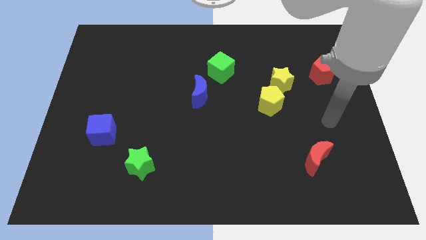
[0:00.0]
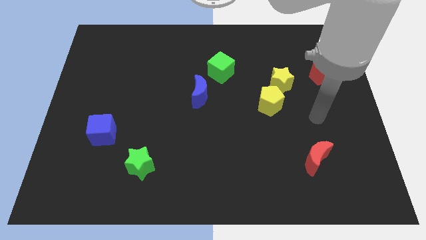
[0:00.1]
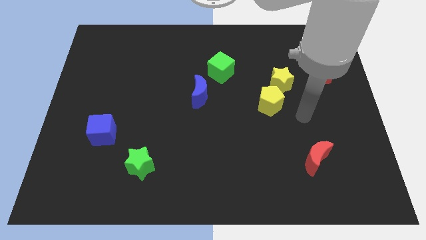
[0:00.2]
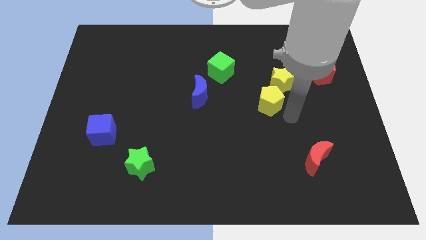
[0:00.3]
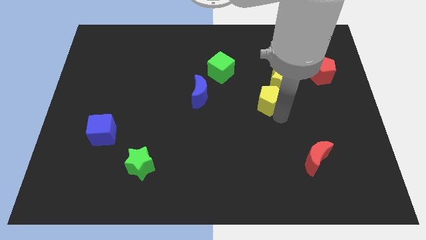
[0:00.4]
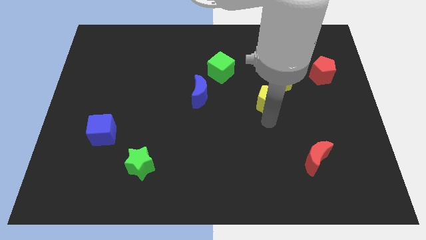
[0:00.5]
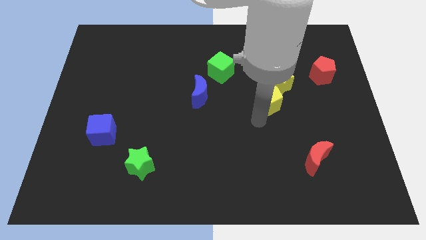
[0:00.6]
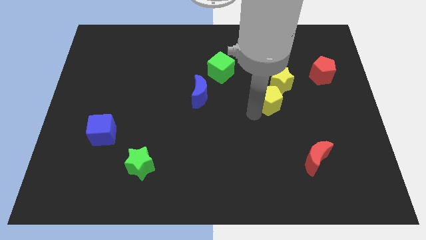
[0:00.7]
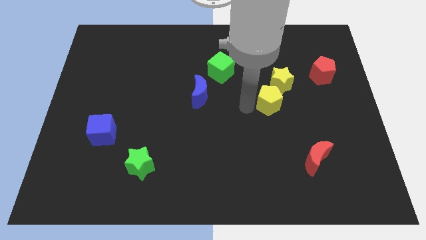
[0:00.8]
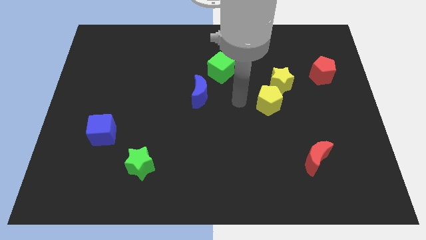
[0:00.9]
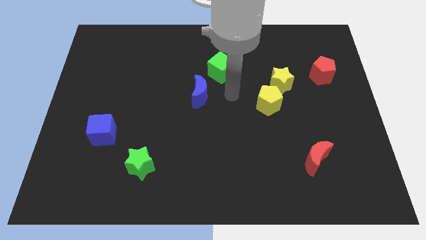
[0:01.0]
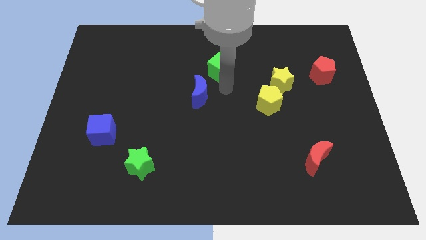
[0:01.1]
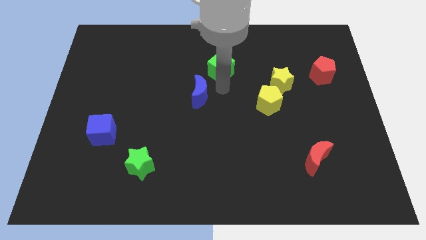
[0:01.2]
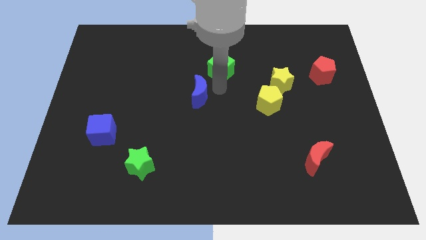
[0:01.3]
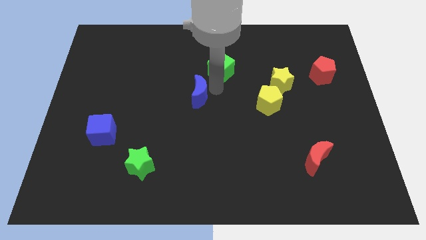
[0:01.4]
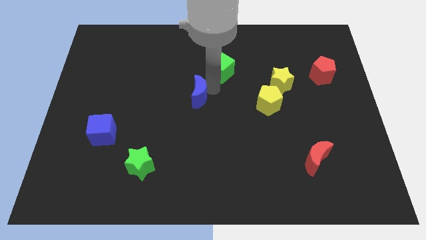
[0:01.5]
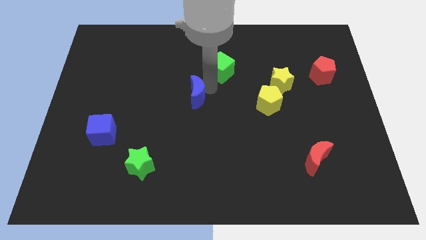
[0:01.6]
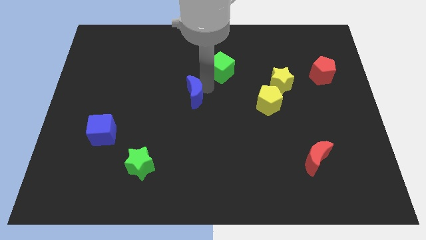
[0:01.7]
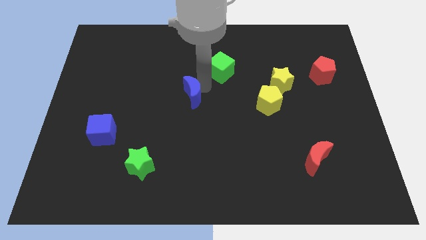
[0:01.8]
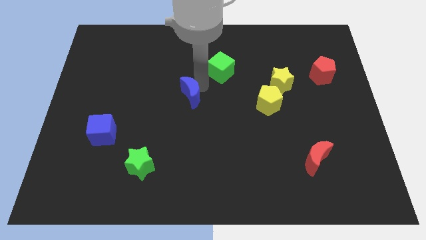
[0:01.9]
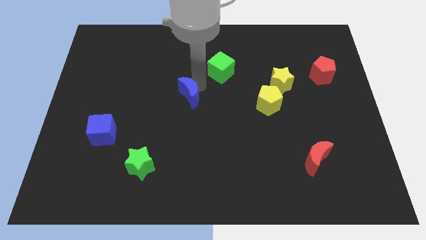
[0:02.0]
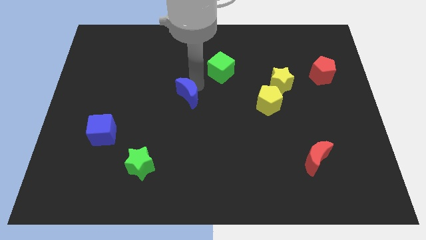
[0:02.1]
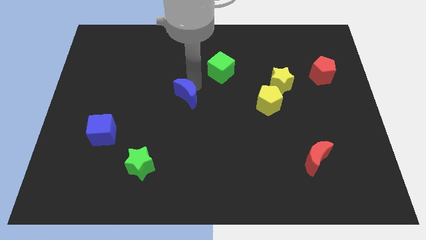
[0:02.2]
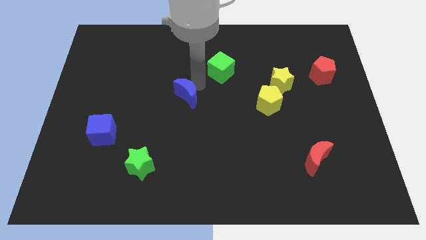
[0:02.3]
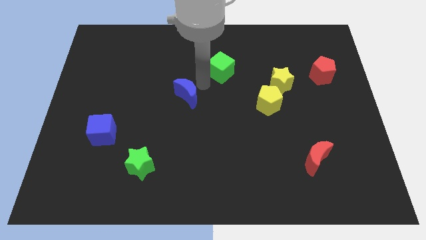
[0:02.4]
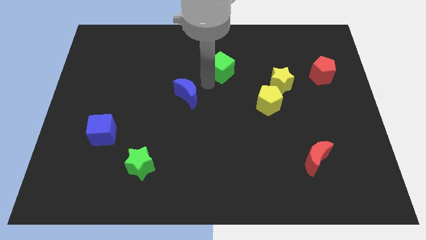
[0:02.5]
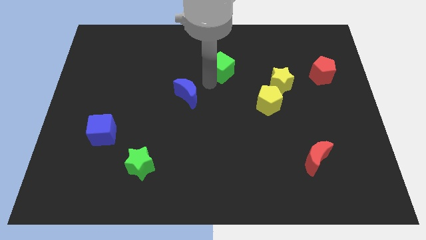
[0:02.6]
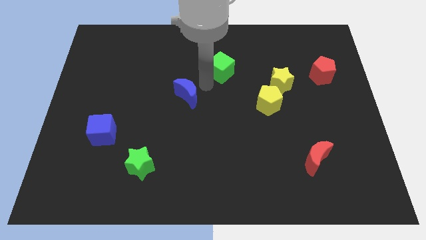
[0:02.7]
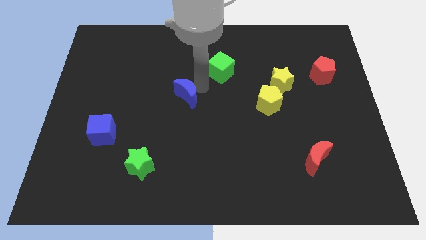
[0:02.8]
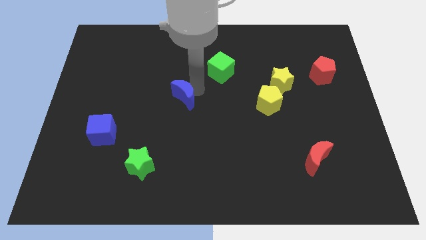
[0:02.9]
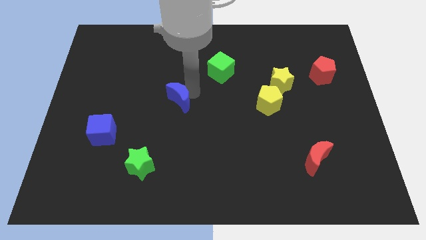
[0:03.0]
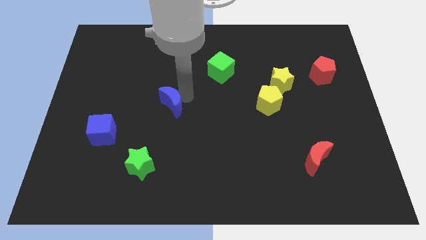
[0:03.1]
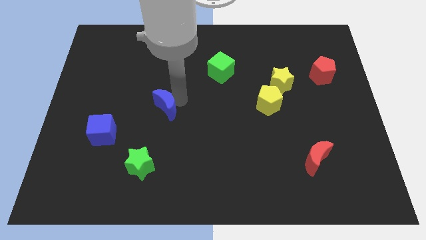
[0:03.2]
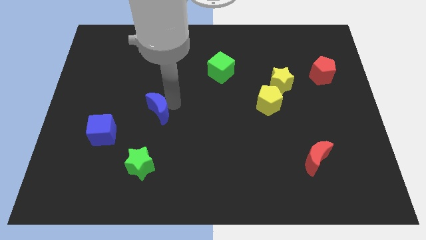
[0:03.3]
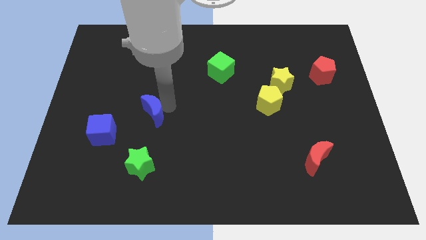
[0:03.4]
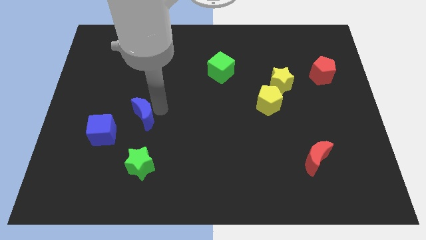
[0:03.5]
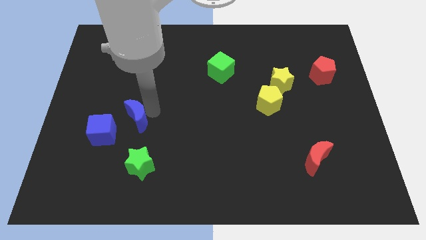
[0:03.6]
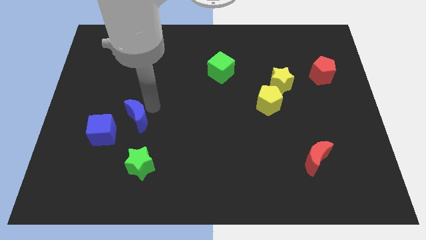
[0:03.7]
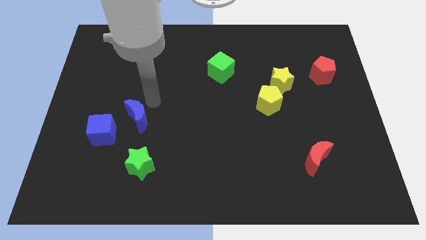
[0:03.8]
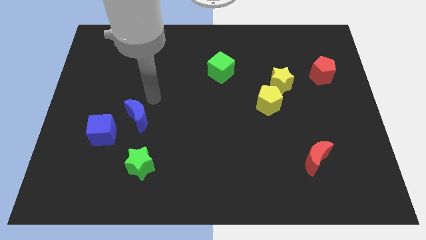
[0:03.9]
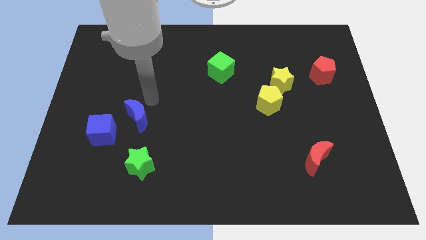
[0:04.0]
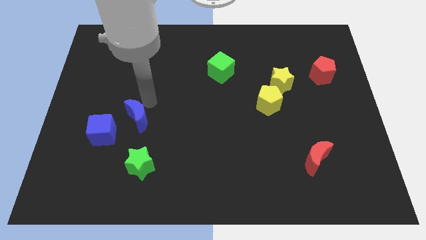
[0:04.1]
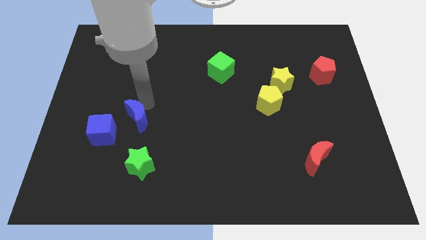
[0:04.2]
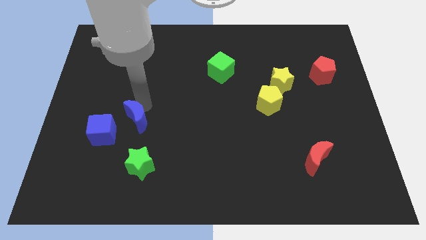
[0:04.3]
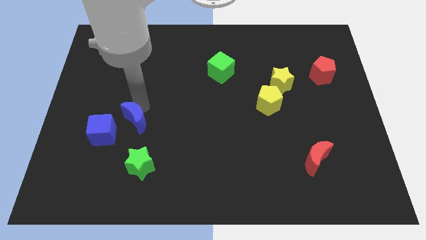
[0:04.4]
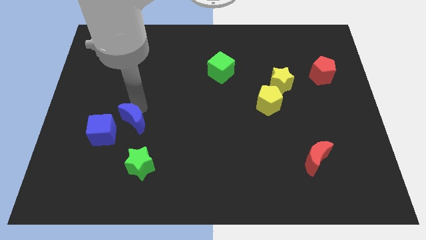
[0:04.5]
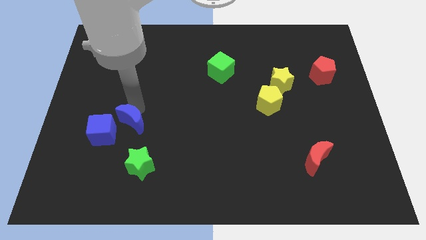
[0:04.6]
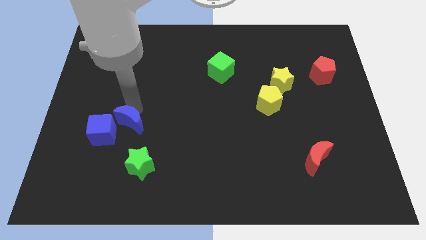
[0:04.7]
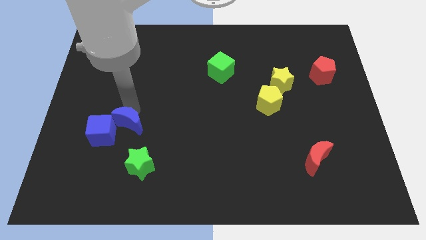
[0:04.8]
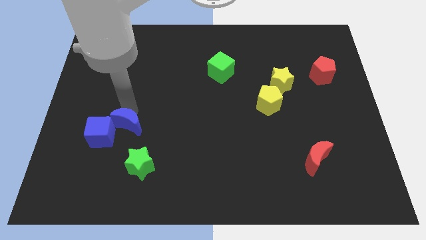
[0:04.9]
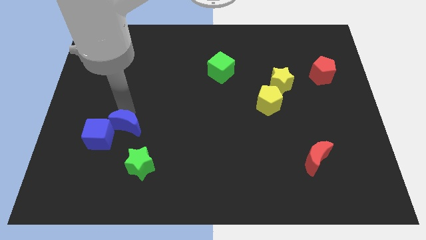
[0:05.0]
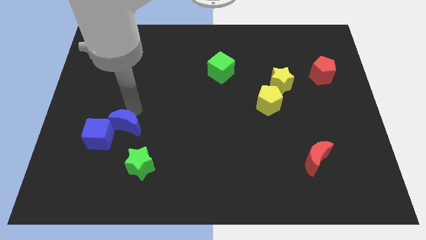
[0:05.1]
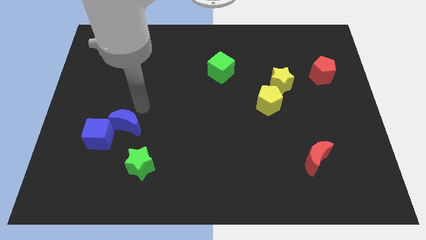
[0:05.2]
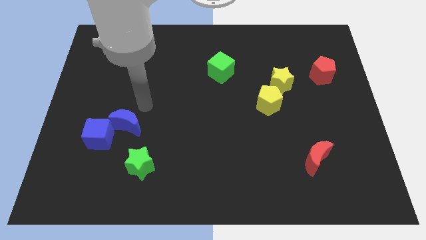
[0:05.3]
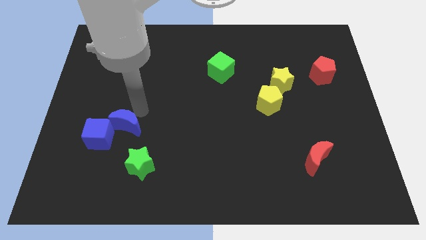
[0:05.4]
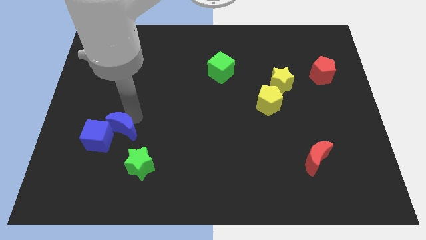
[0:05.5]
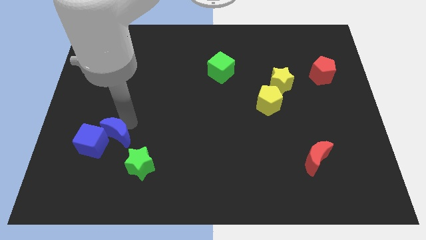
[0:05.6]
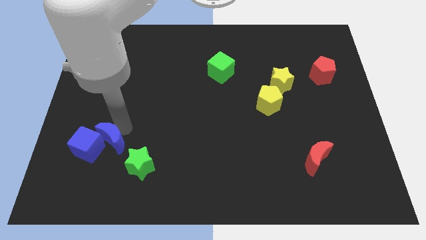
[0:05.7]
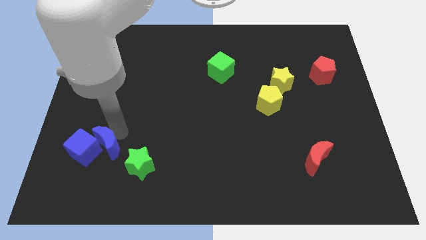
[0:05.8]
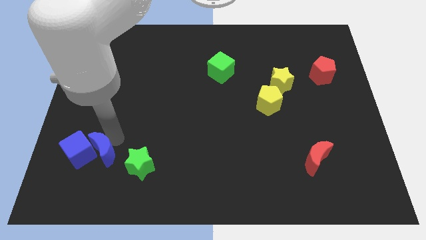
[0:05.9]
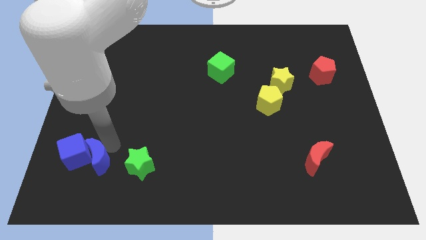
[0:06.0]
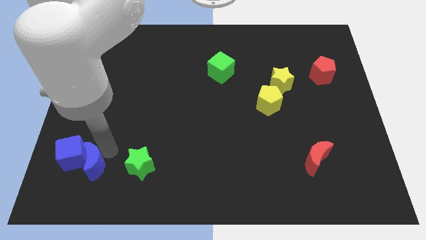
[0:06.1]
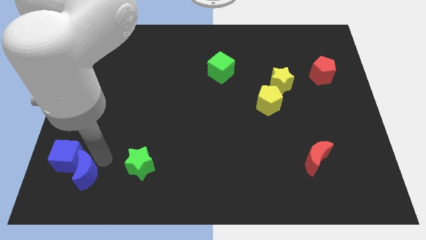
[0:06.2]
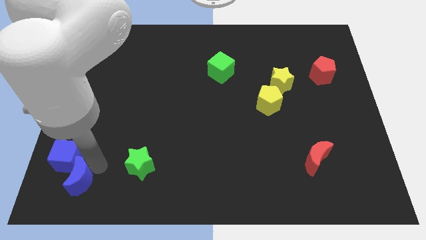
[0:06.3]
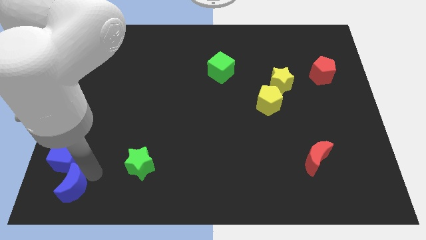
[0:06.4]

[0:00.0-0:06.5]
push the blue moon to the bottom left corner
